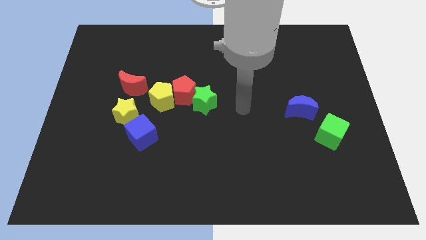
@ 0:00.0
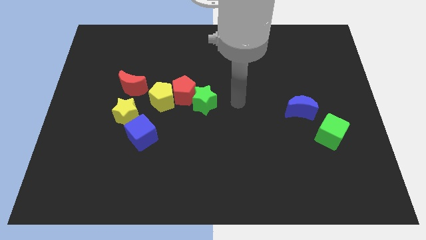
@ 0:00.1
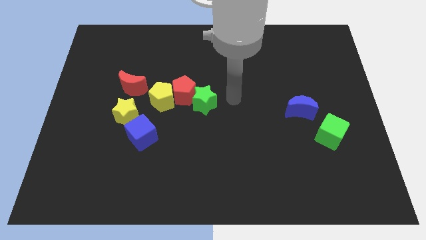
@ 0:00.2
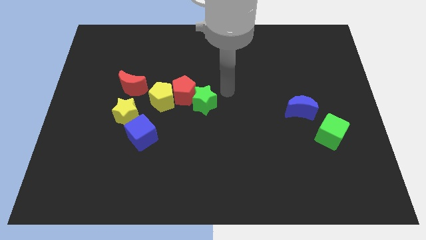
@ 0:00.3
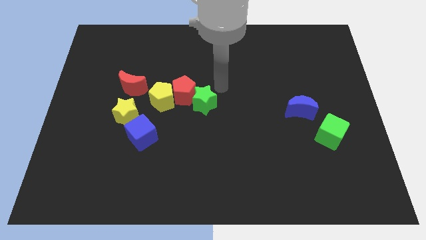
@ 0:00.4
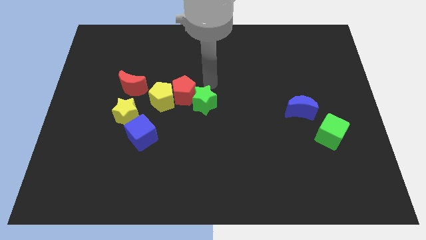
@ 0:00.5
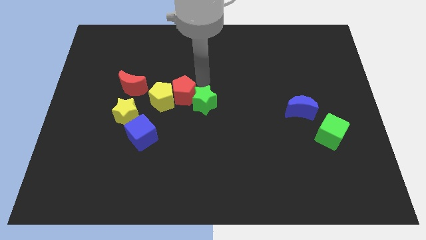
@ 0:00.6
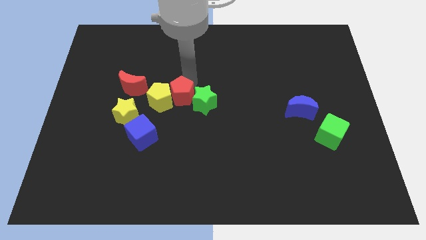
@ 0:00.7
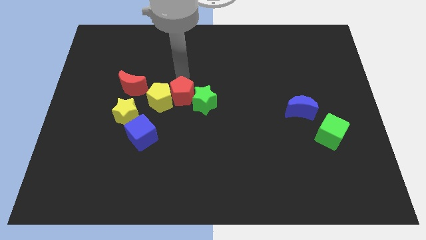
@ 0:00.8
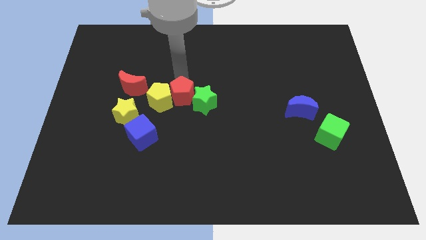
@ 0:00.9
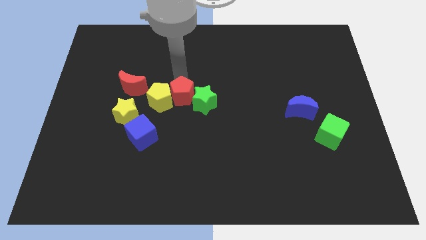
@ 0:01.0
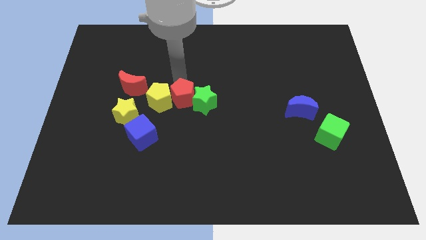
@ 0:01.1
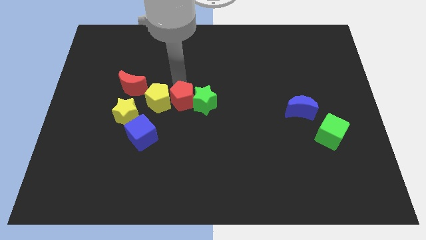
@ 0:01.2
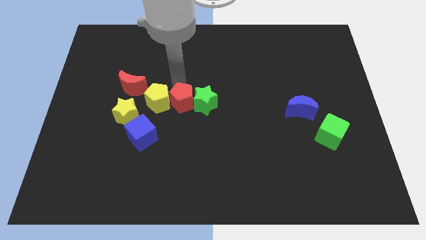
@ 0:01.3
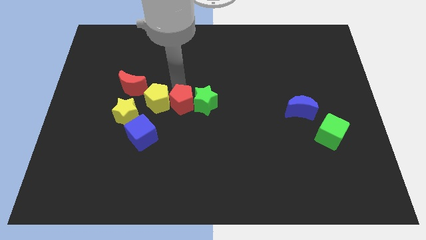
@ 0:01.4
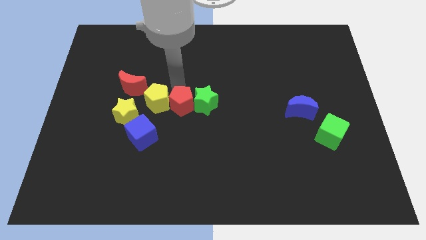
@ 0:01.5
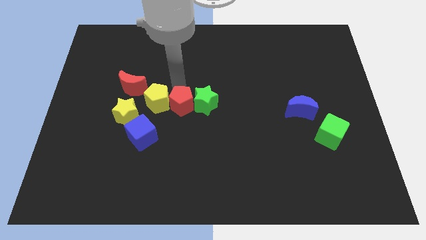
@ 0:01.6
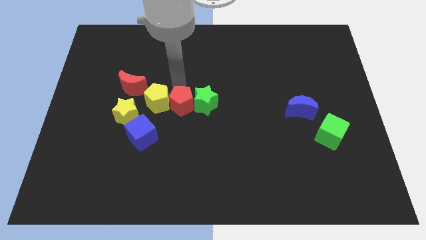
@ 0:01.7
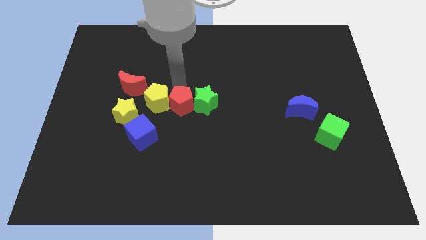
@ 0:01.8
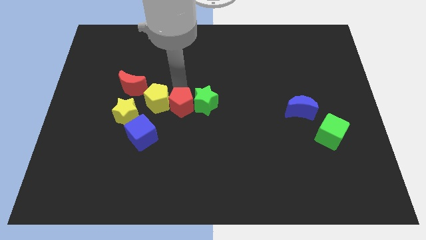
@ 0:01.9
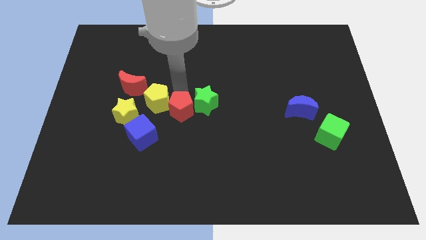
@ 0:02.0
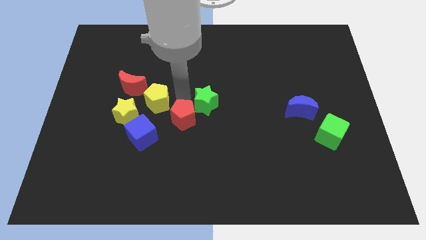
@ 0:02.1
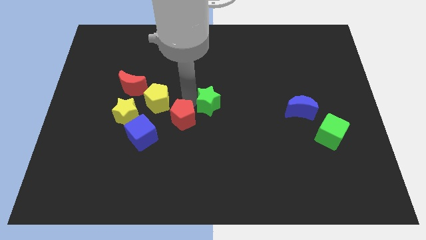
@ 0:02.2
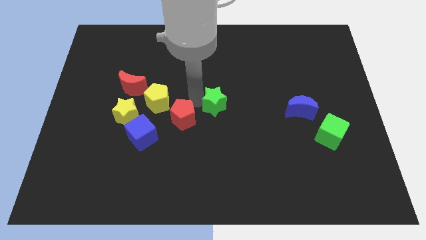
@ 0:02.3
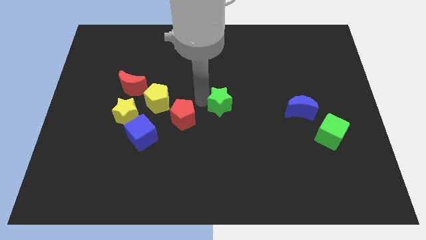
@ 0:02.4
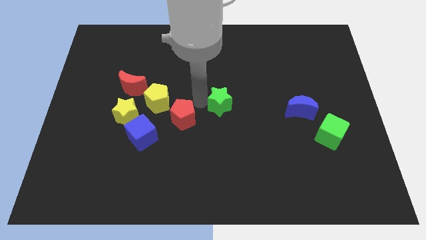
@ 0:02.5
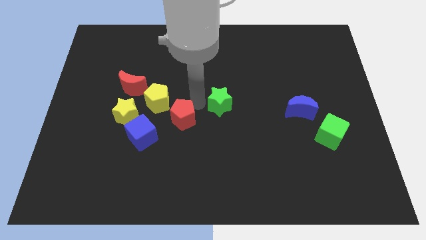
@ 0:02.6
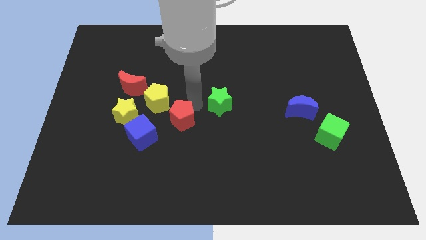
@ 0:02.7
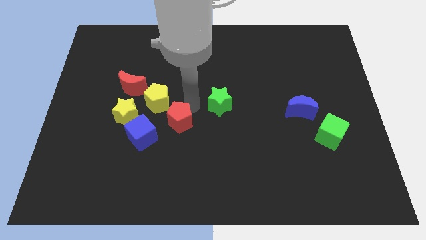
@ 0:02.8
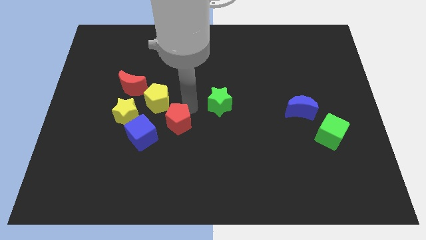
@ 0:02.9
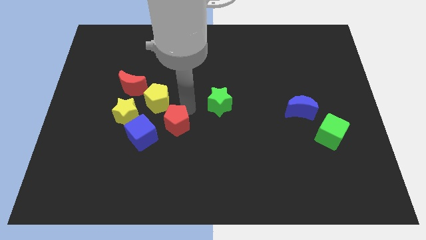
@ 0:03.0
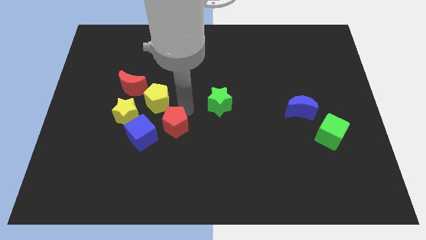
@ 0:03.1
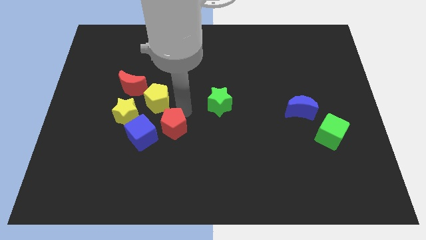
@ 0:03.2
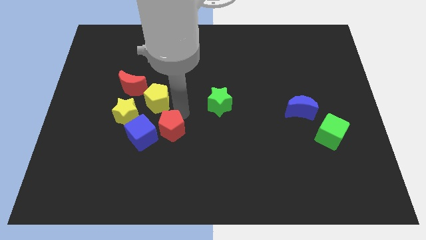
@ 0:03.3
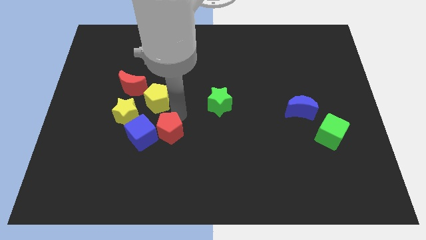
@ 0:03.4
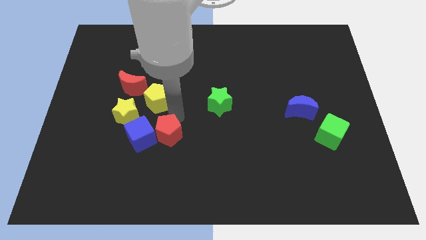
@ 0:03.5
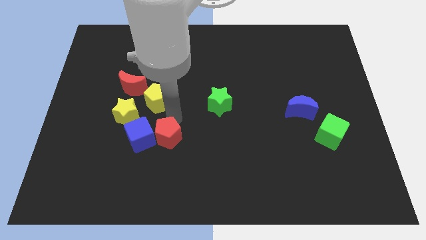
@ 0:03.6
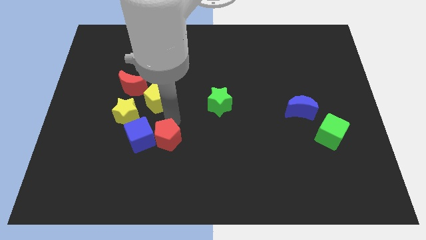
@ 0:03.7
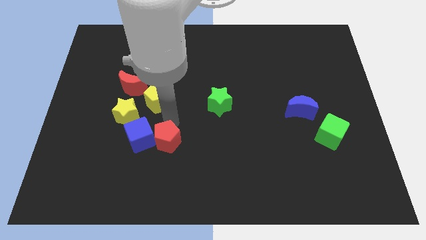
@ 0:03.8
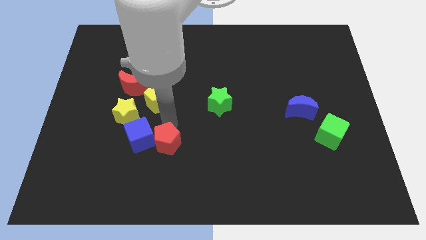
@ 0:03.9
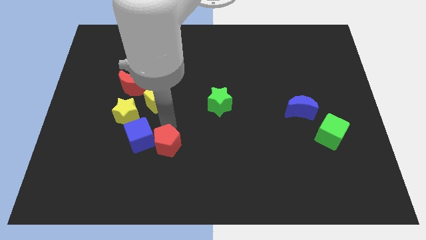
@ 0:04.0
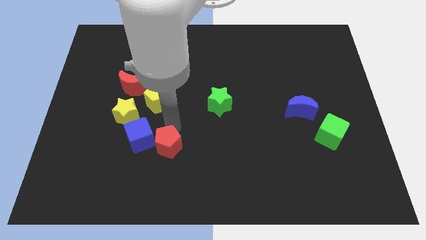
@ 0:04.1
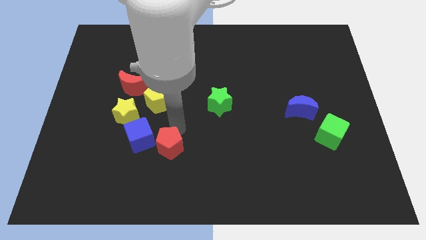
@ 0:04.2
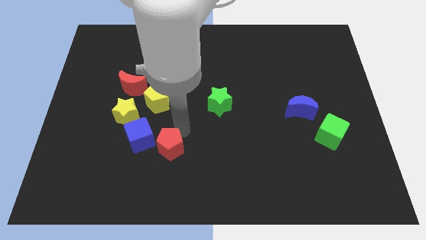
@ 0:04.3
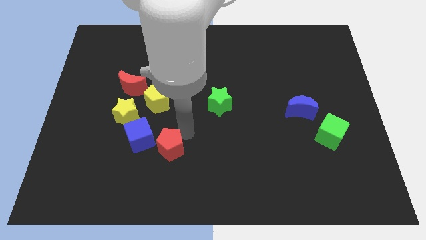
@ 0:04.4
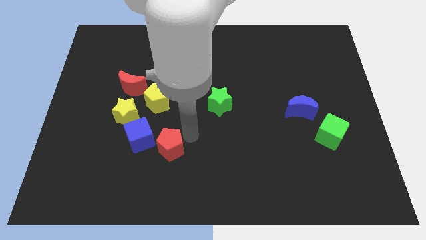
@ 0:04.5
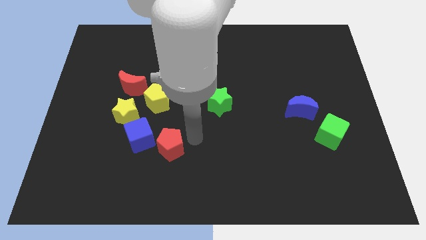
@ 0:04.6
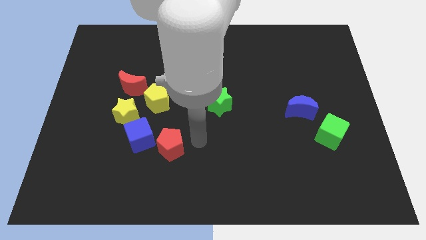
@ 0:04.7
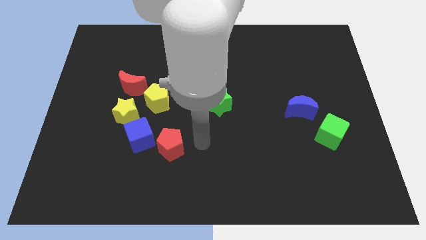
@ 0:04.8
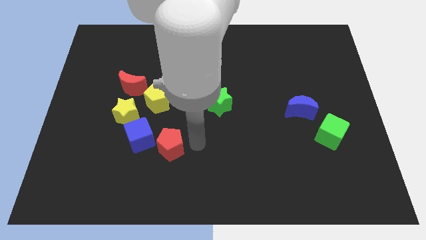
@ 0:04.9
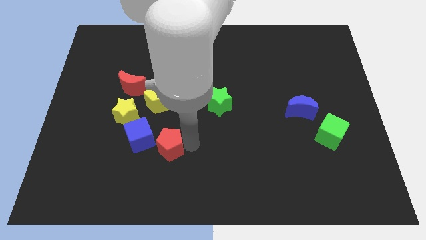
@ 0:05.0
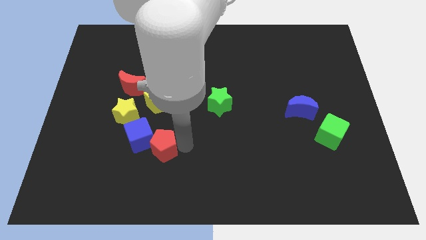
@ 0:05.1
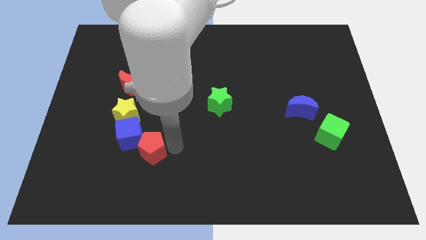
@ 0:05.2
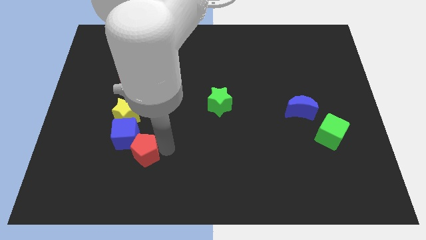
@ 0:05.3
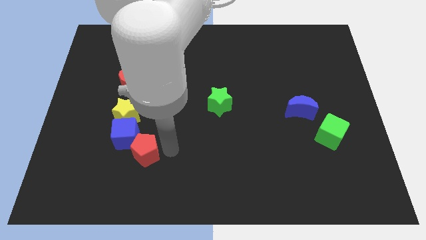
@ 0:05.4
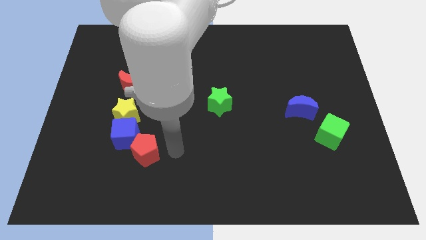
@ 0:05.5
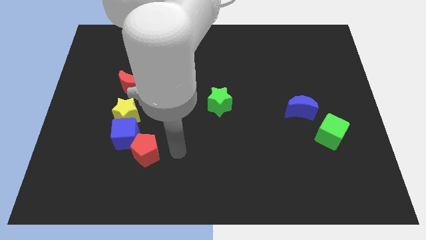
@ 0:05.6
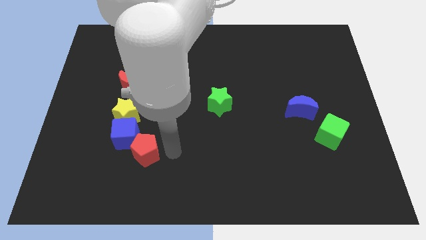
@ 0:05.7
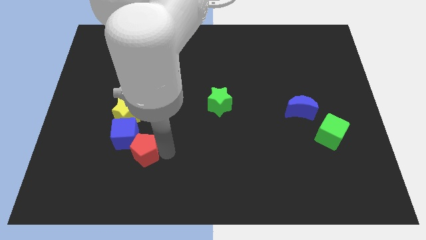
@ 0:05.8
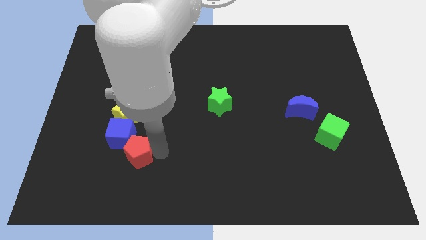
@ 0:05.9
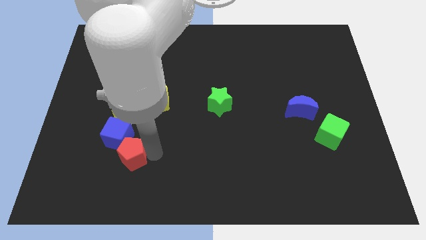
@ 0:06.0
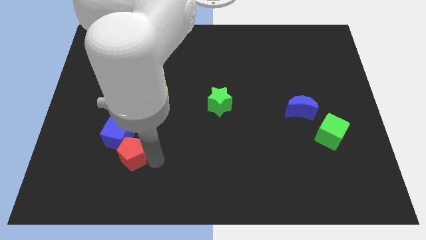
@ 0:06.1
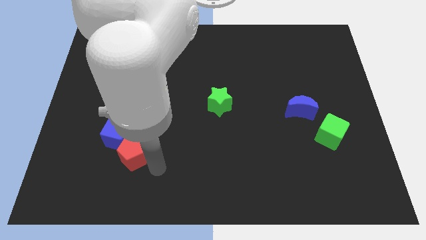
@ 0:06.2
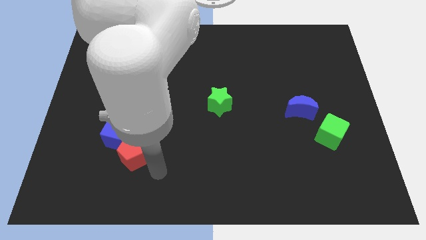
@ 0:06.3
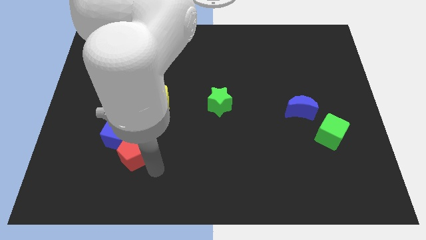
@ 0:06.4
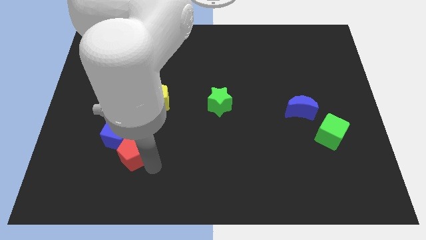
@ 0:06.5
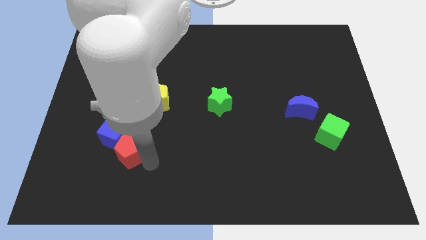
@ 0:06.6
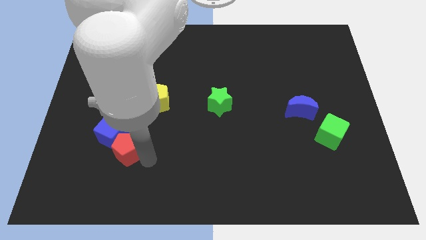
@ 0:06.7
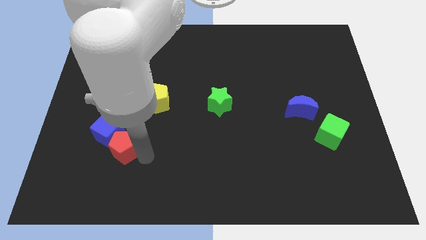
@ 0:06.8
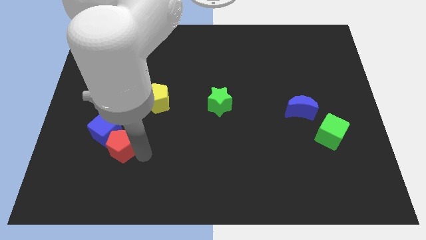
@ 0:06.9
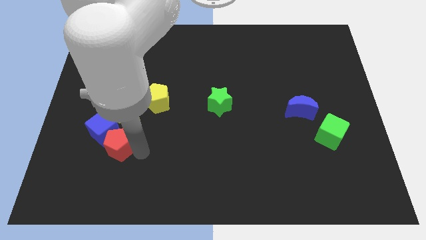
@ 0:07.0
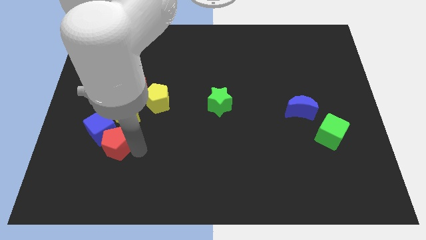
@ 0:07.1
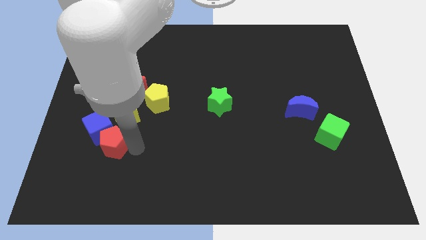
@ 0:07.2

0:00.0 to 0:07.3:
move the red pentagon to the bottom left of the yellow star
